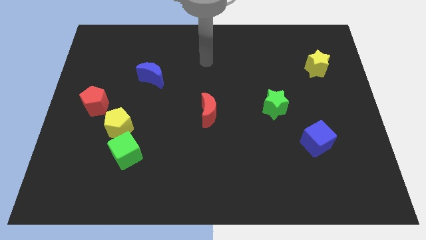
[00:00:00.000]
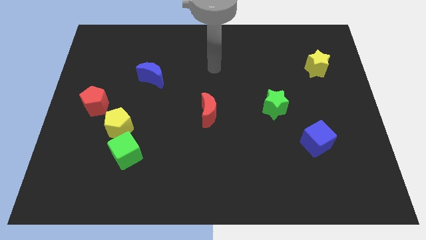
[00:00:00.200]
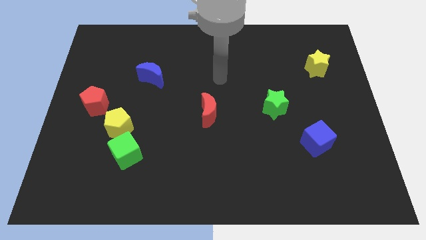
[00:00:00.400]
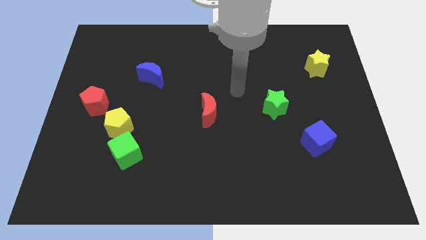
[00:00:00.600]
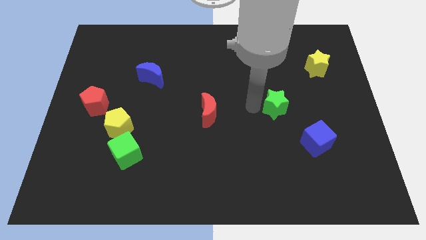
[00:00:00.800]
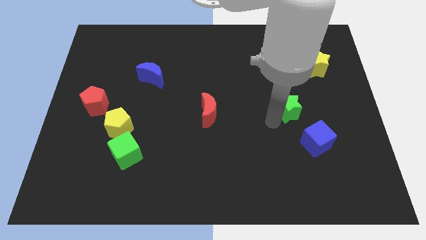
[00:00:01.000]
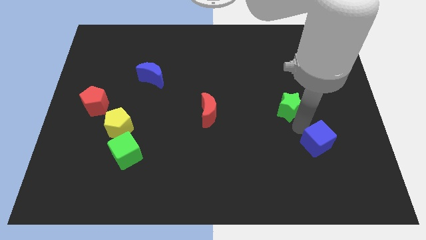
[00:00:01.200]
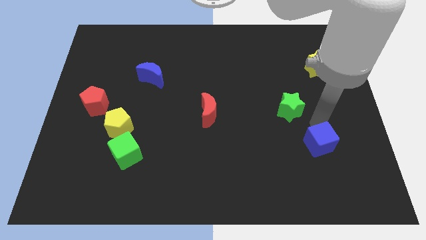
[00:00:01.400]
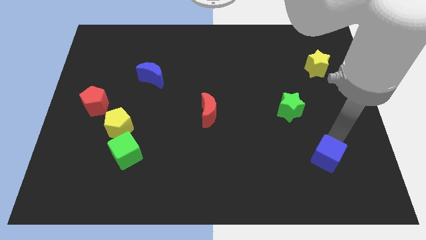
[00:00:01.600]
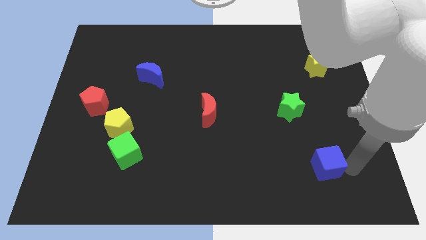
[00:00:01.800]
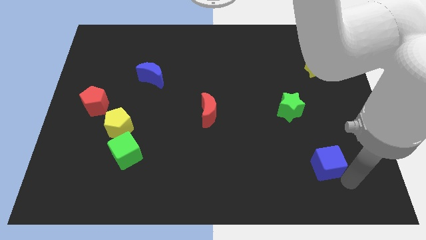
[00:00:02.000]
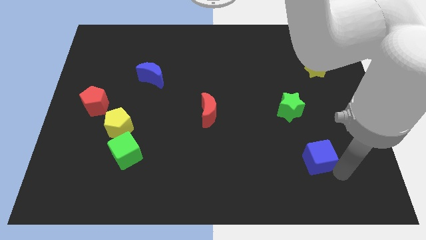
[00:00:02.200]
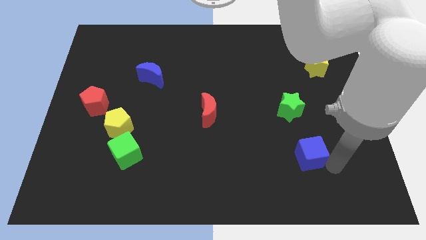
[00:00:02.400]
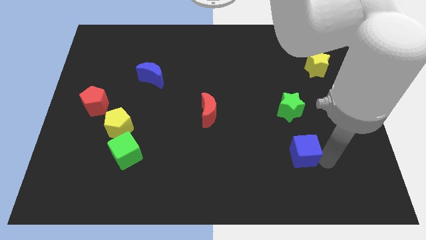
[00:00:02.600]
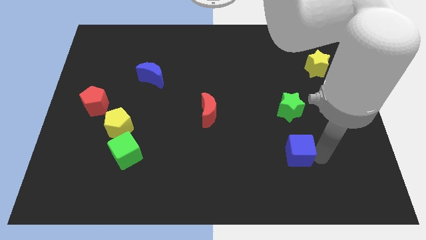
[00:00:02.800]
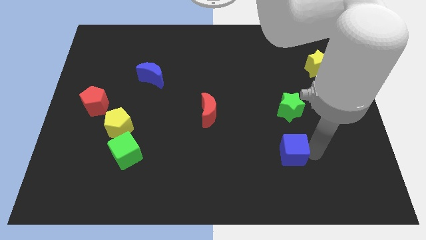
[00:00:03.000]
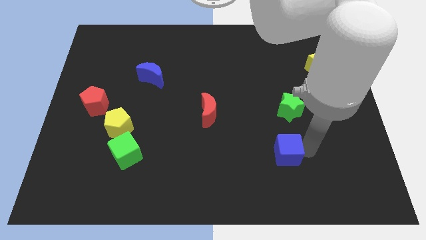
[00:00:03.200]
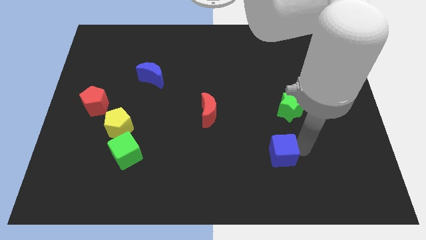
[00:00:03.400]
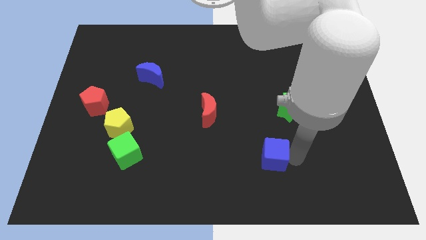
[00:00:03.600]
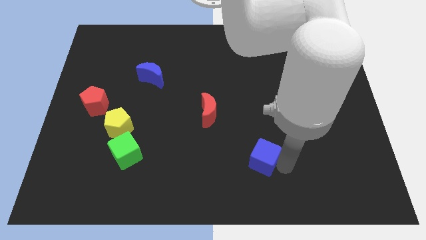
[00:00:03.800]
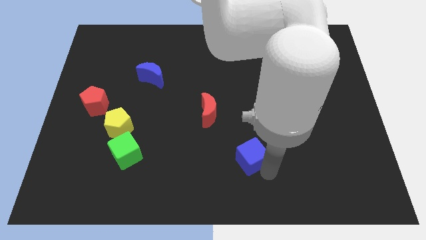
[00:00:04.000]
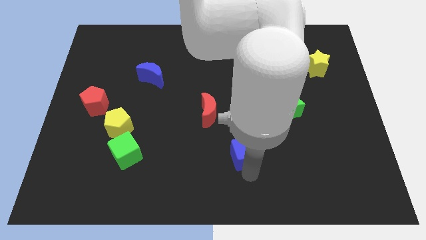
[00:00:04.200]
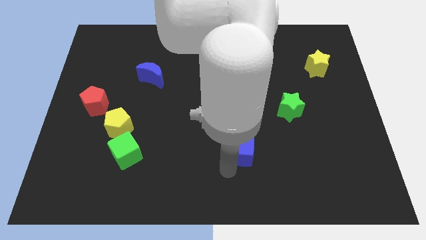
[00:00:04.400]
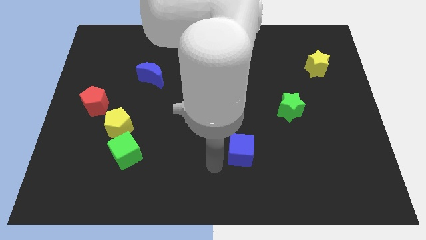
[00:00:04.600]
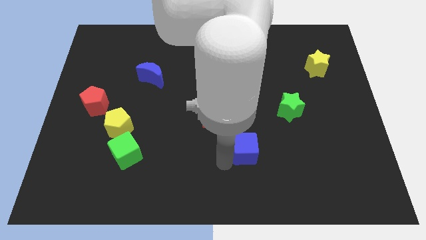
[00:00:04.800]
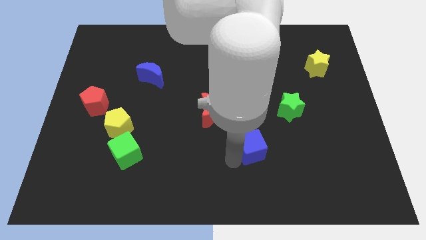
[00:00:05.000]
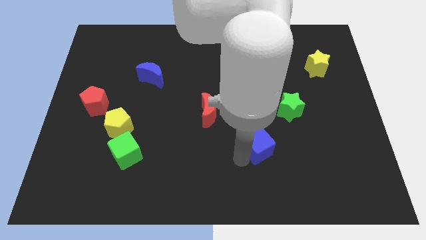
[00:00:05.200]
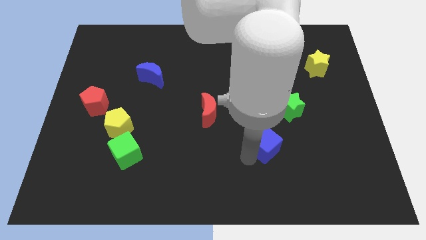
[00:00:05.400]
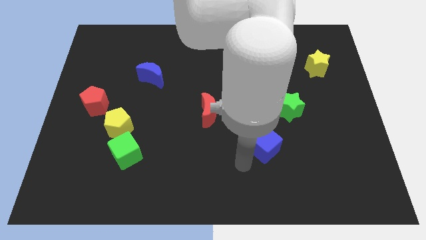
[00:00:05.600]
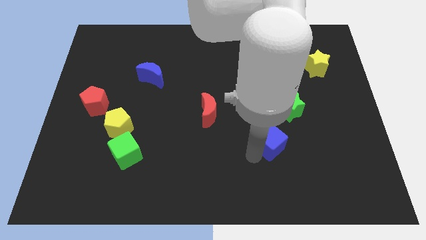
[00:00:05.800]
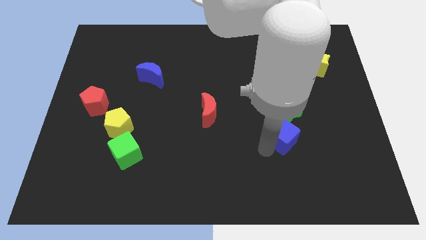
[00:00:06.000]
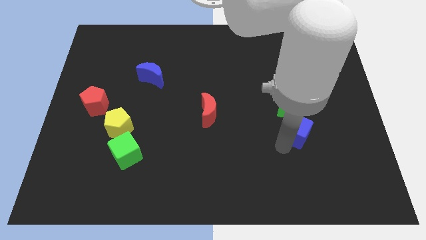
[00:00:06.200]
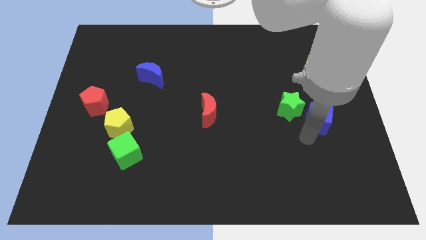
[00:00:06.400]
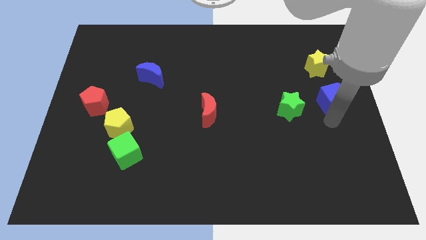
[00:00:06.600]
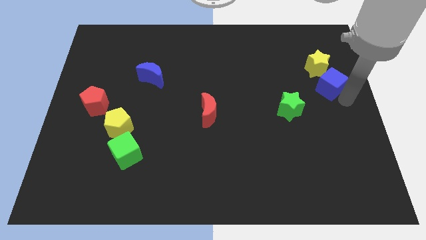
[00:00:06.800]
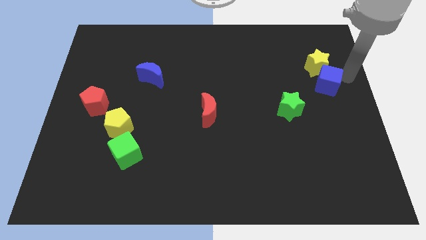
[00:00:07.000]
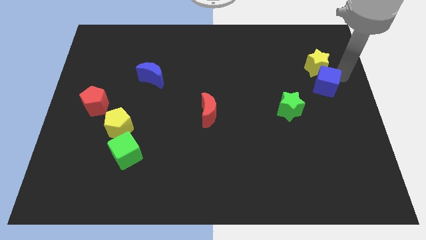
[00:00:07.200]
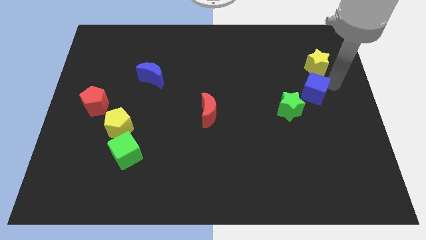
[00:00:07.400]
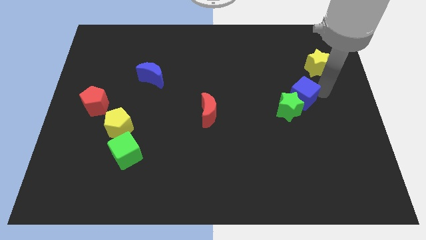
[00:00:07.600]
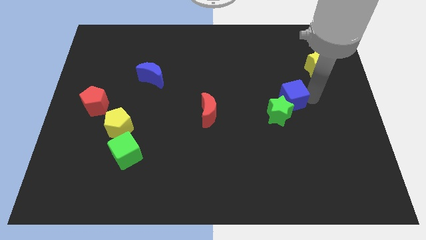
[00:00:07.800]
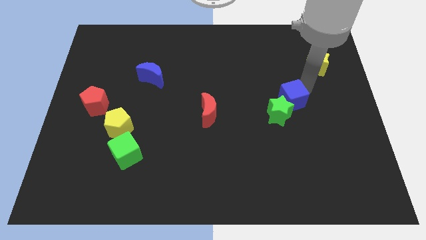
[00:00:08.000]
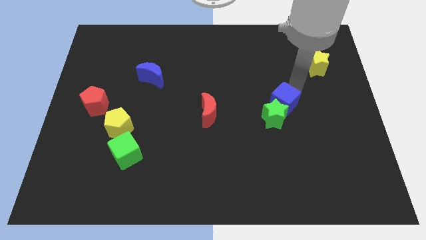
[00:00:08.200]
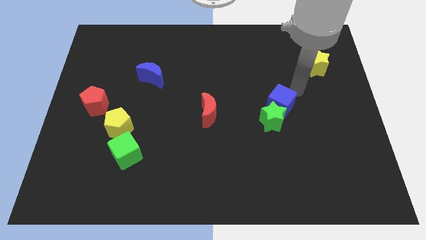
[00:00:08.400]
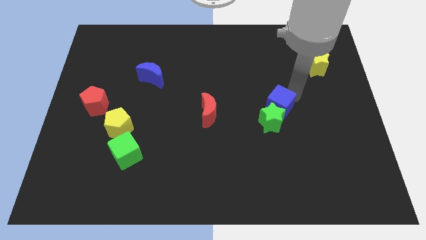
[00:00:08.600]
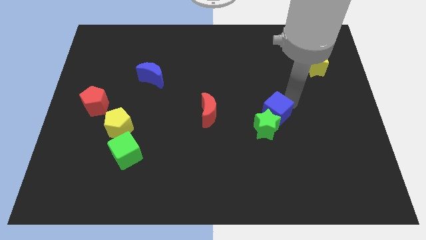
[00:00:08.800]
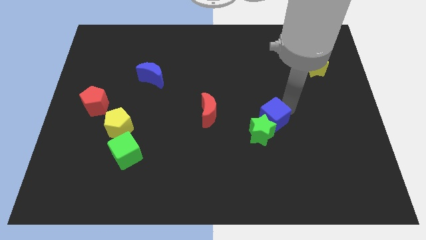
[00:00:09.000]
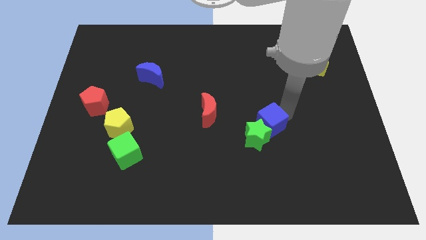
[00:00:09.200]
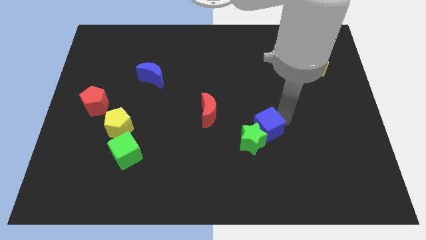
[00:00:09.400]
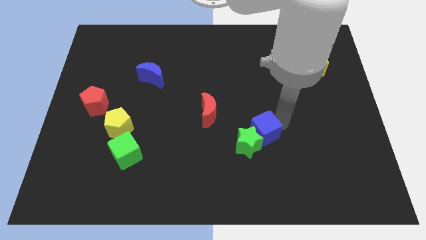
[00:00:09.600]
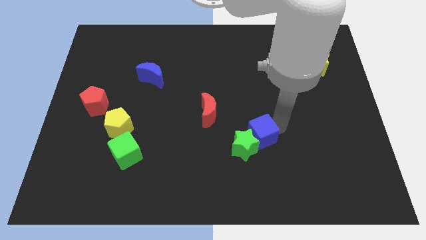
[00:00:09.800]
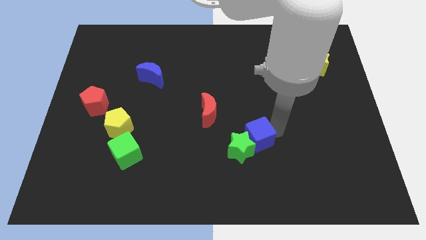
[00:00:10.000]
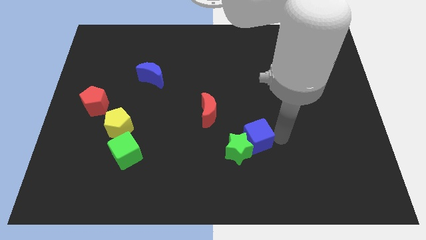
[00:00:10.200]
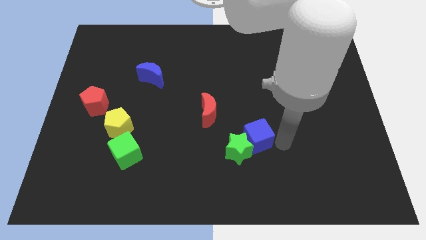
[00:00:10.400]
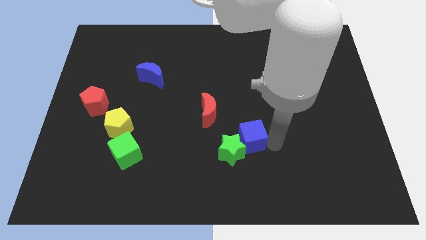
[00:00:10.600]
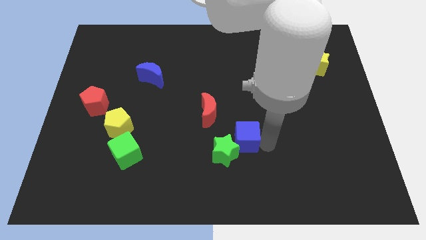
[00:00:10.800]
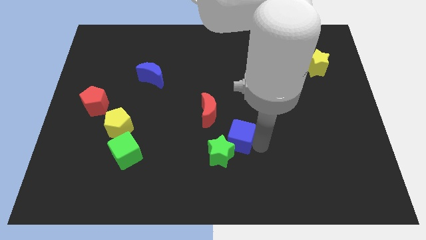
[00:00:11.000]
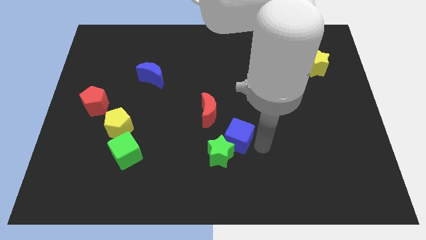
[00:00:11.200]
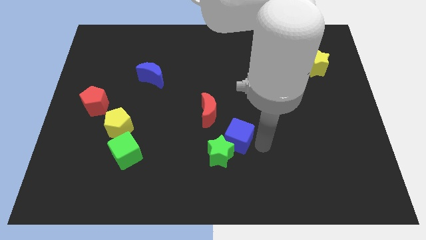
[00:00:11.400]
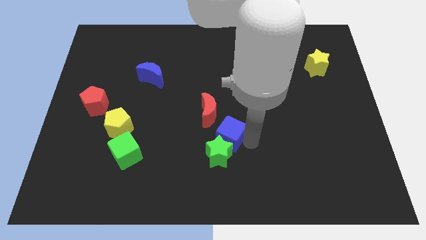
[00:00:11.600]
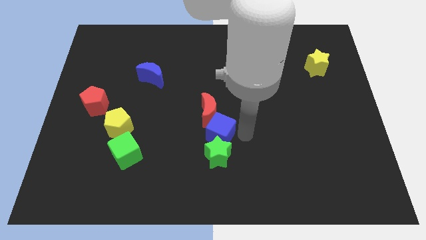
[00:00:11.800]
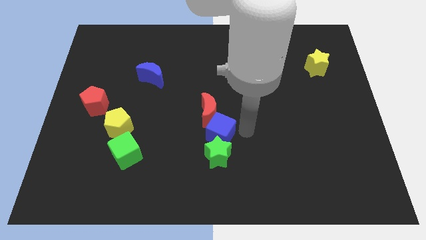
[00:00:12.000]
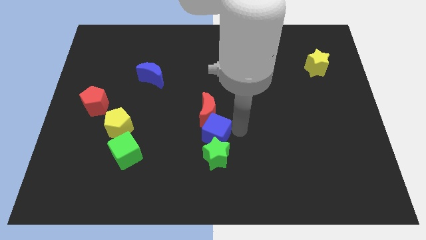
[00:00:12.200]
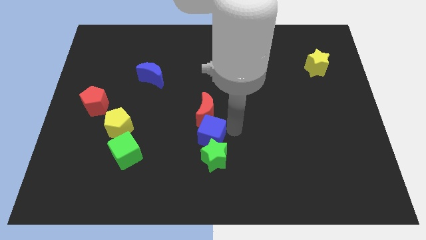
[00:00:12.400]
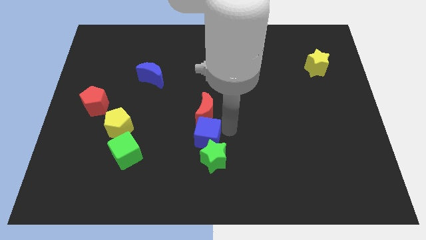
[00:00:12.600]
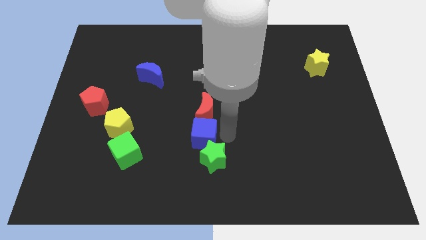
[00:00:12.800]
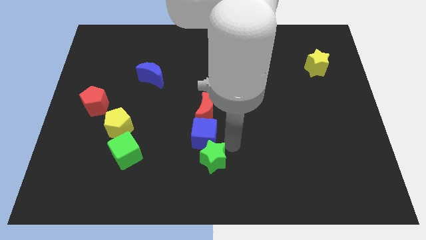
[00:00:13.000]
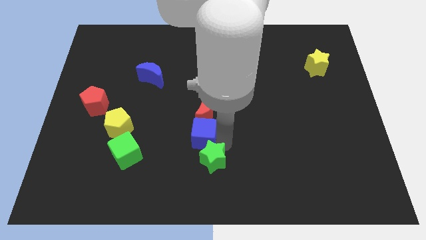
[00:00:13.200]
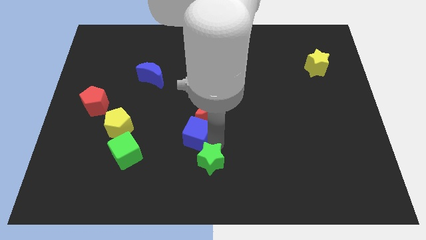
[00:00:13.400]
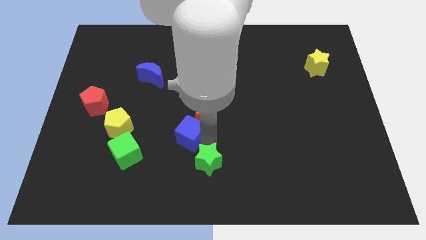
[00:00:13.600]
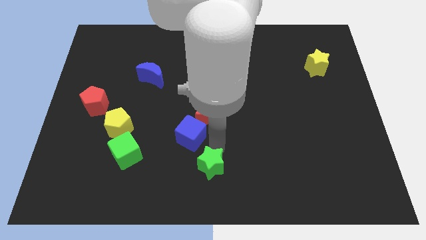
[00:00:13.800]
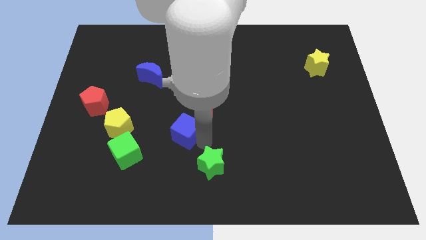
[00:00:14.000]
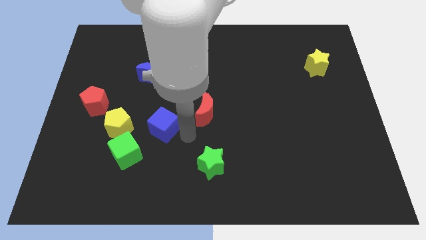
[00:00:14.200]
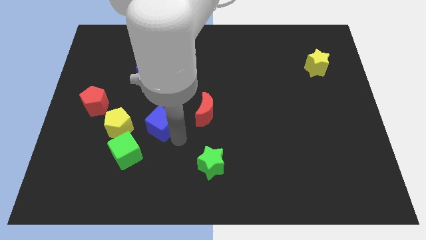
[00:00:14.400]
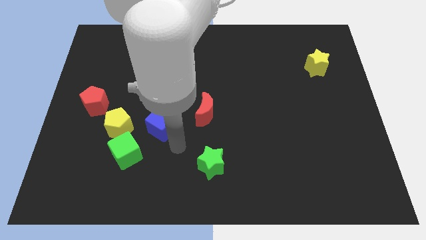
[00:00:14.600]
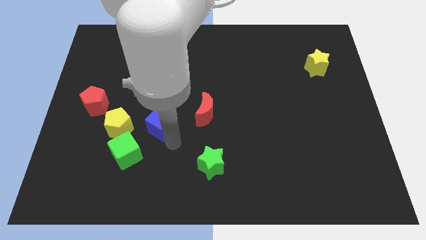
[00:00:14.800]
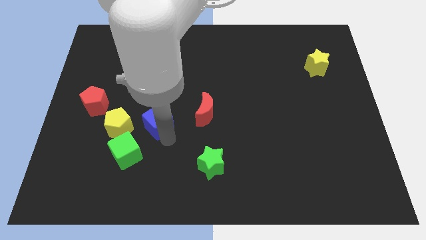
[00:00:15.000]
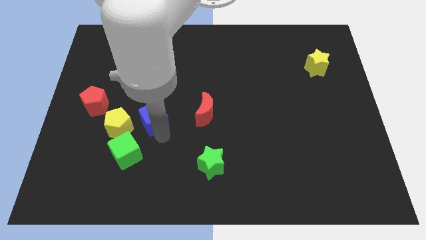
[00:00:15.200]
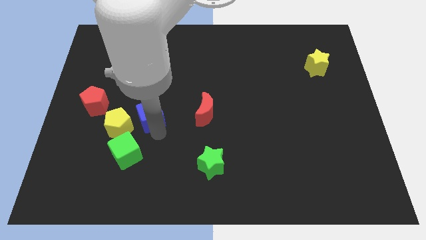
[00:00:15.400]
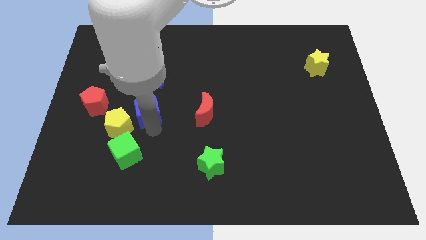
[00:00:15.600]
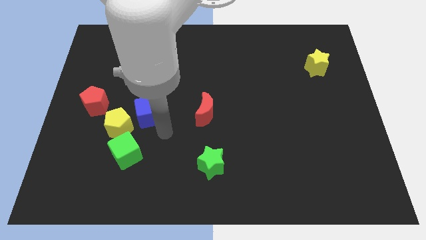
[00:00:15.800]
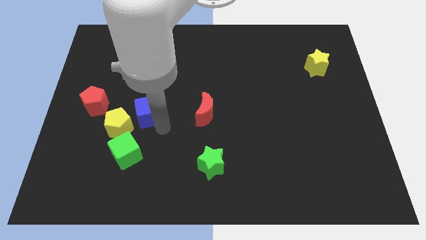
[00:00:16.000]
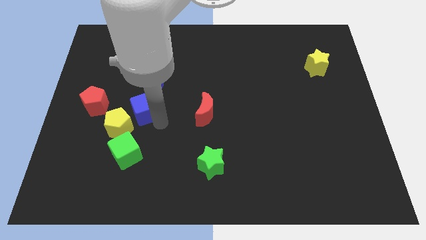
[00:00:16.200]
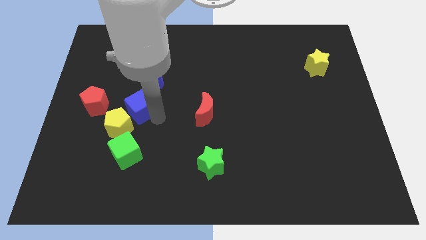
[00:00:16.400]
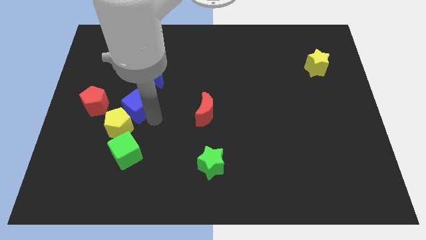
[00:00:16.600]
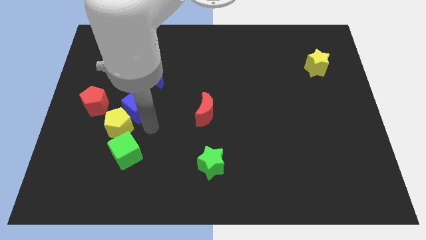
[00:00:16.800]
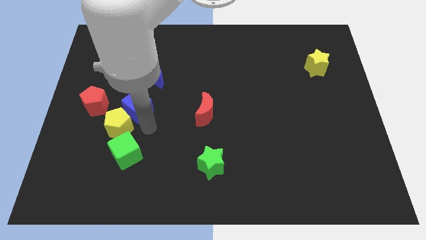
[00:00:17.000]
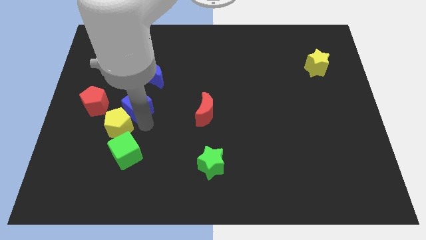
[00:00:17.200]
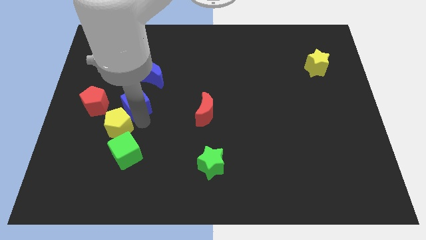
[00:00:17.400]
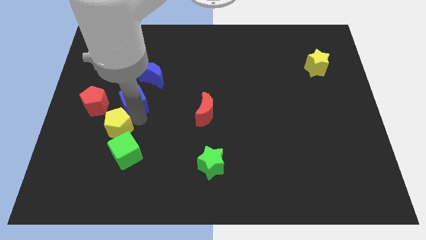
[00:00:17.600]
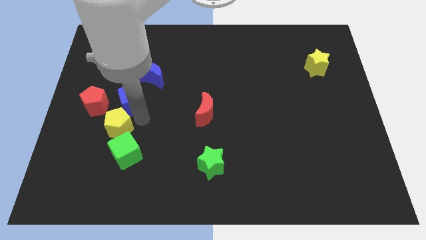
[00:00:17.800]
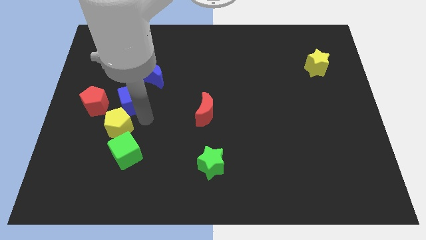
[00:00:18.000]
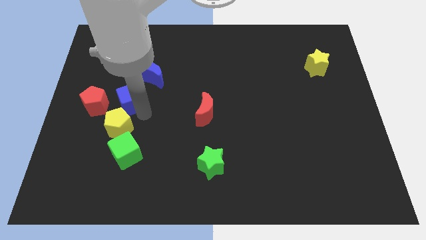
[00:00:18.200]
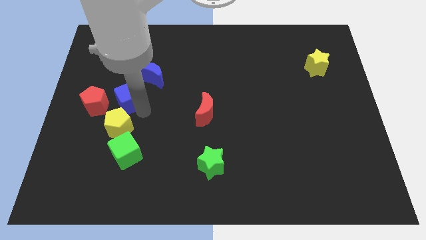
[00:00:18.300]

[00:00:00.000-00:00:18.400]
put the blue cube to the top right side of the red pentagon
